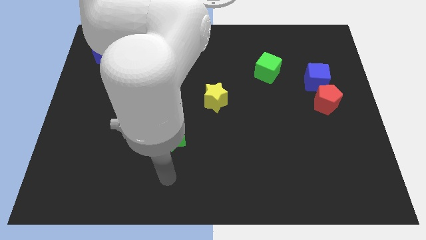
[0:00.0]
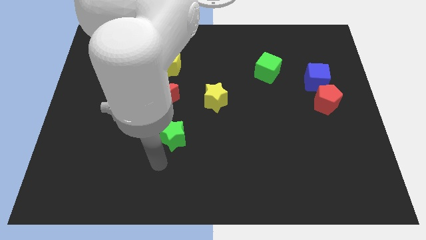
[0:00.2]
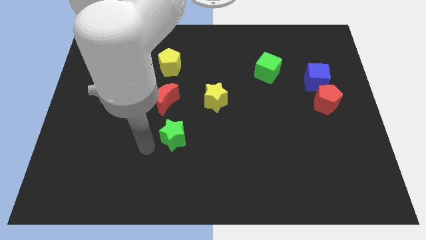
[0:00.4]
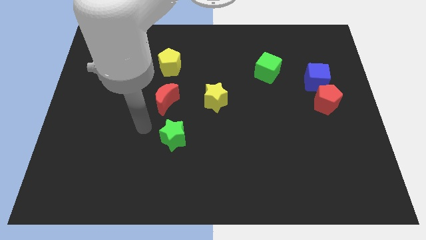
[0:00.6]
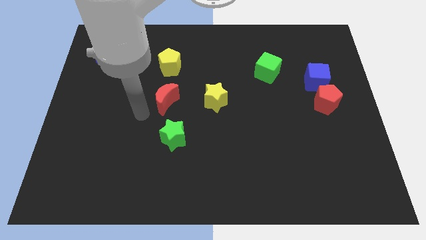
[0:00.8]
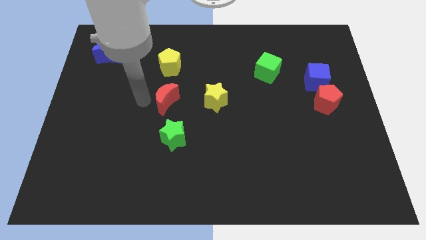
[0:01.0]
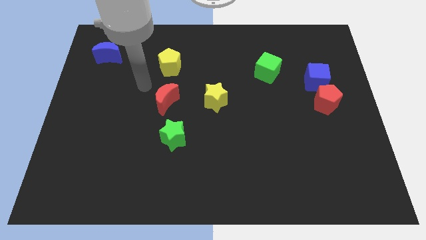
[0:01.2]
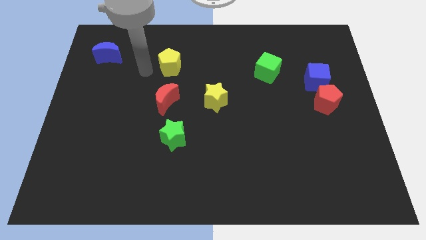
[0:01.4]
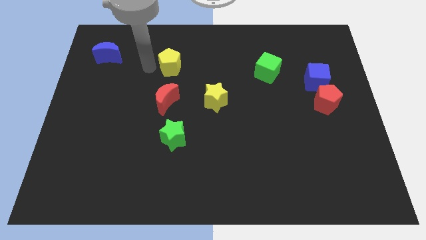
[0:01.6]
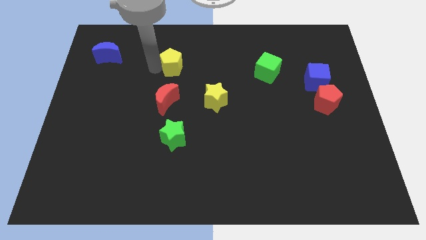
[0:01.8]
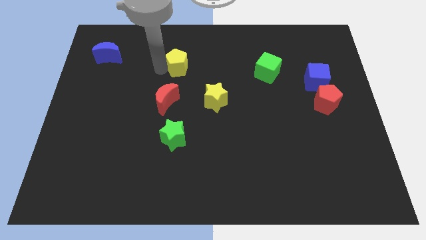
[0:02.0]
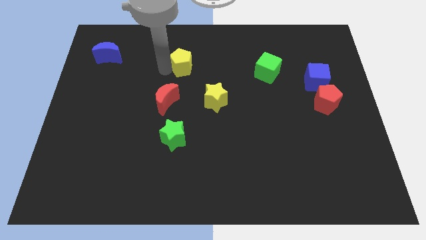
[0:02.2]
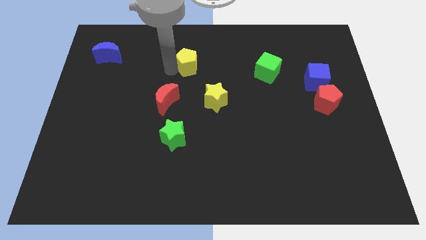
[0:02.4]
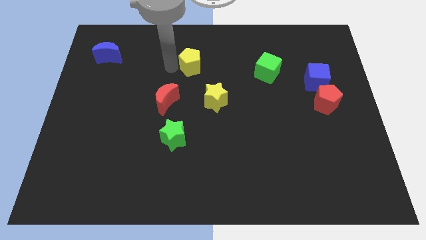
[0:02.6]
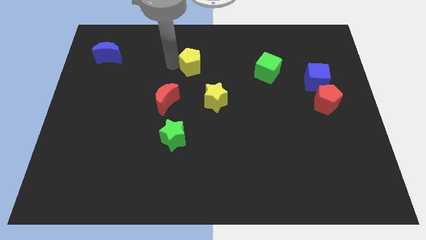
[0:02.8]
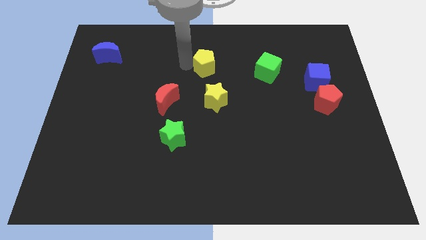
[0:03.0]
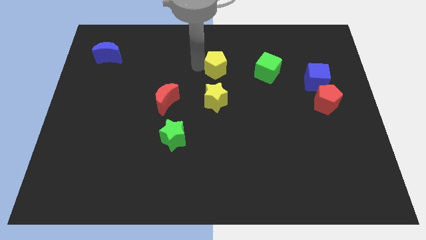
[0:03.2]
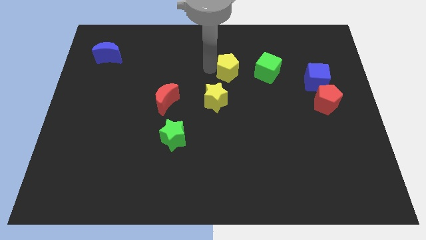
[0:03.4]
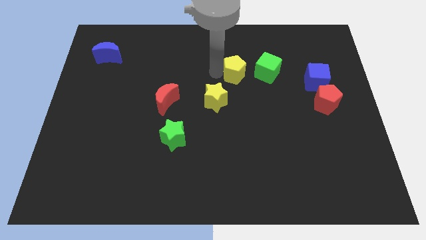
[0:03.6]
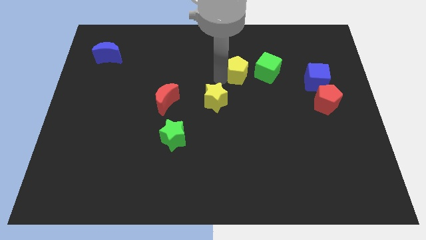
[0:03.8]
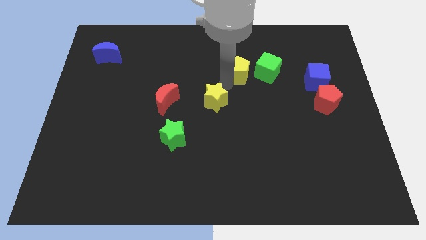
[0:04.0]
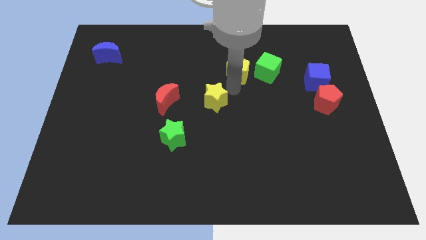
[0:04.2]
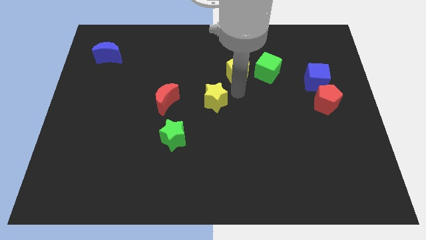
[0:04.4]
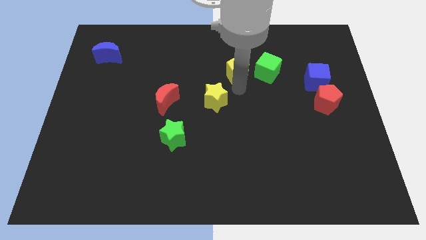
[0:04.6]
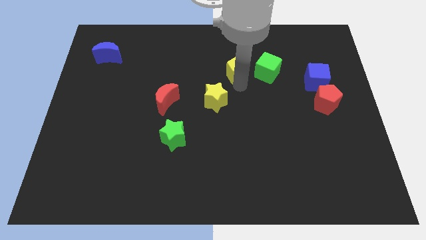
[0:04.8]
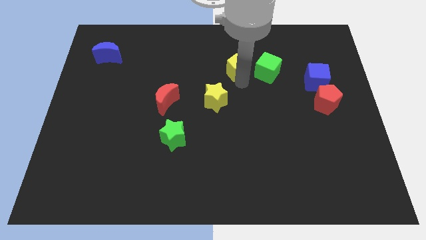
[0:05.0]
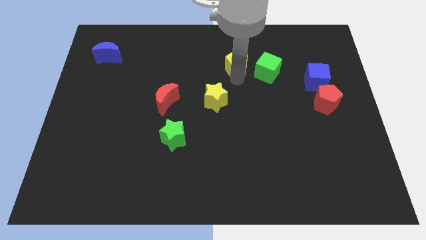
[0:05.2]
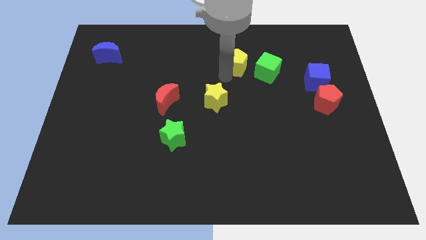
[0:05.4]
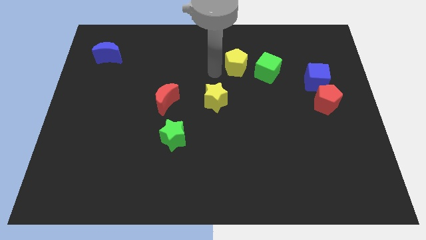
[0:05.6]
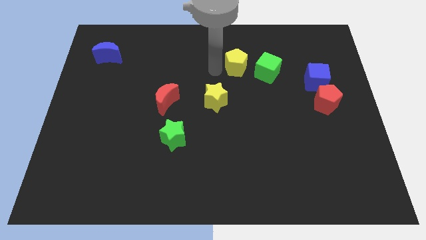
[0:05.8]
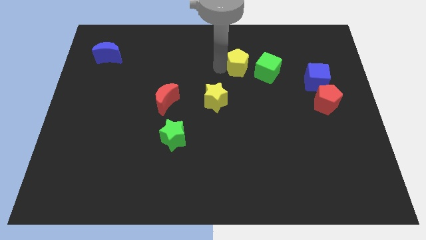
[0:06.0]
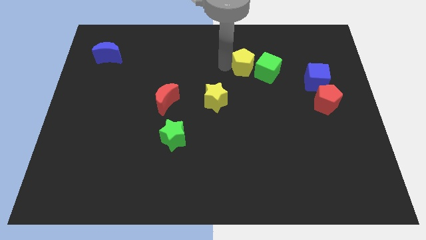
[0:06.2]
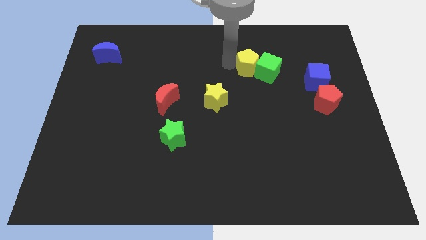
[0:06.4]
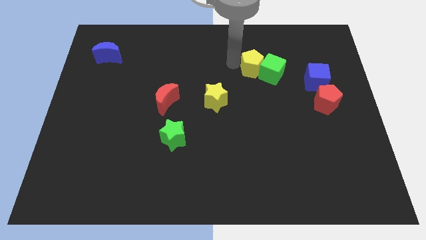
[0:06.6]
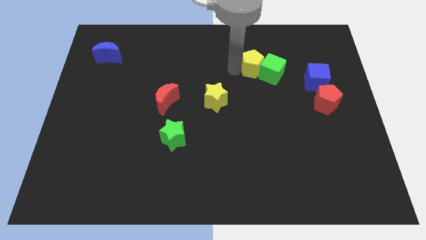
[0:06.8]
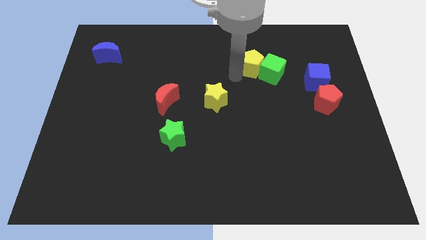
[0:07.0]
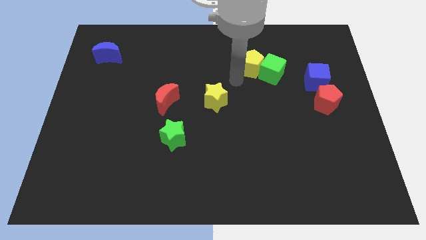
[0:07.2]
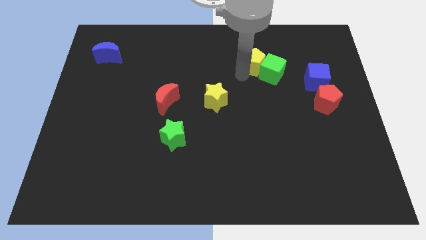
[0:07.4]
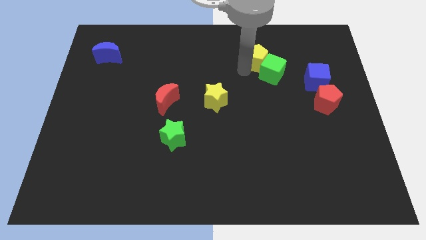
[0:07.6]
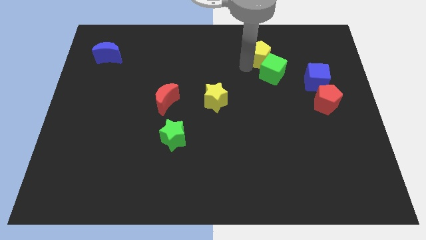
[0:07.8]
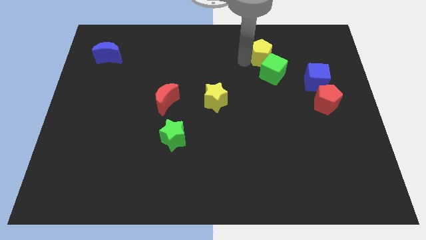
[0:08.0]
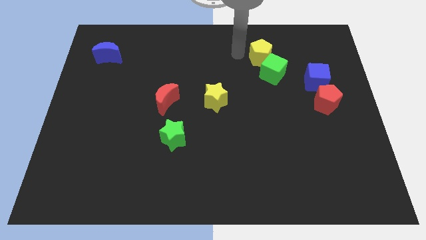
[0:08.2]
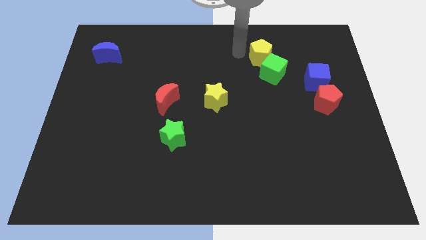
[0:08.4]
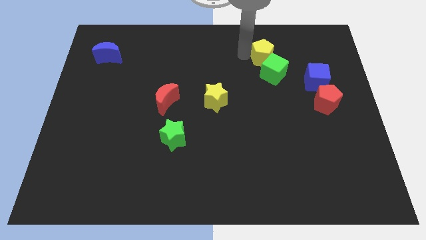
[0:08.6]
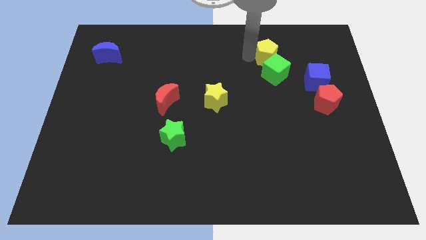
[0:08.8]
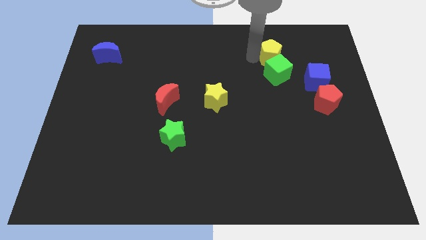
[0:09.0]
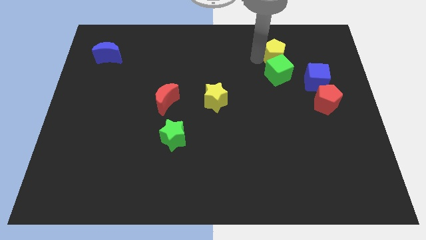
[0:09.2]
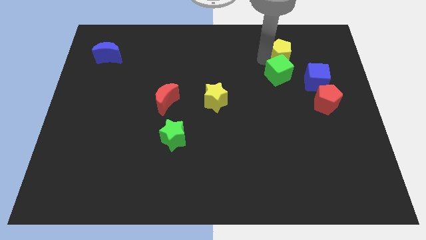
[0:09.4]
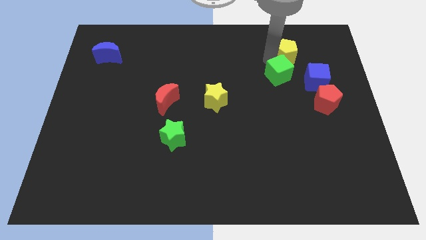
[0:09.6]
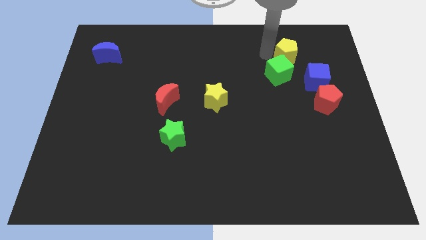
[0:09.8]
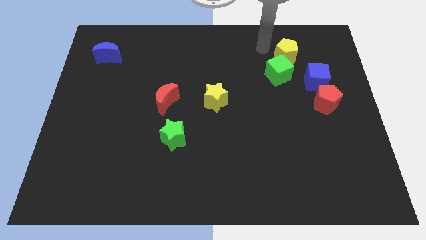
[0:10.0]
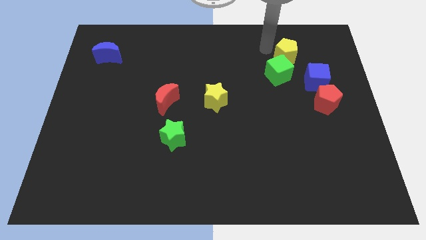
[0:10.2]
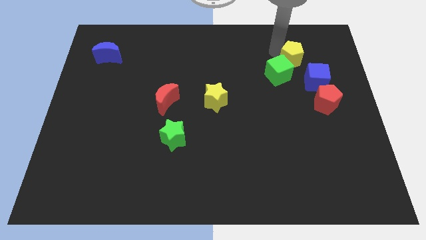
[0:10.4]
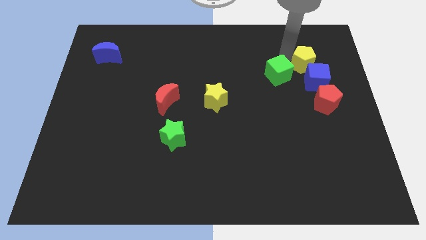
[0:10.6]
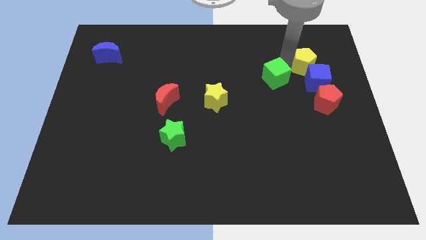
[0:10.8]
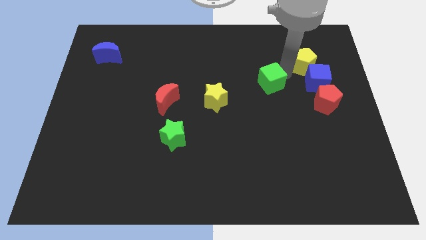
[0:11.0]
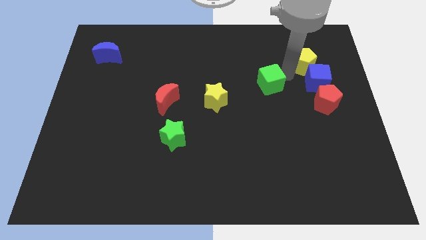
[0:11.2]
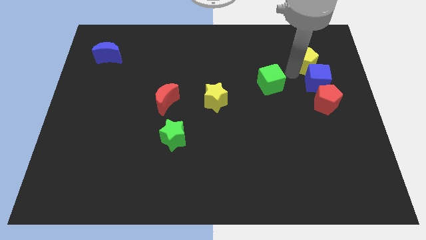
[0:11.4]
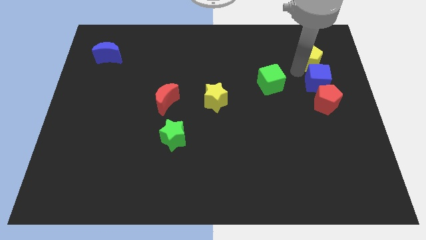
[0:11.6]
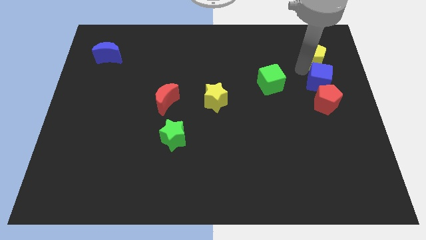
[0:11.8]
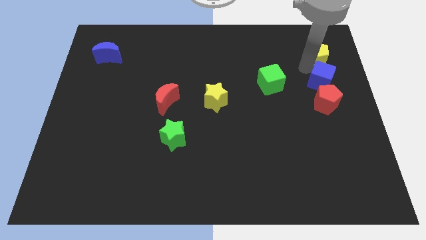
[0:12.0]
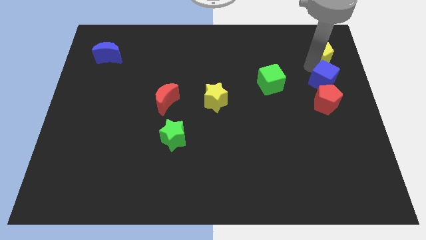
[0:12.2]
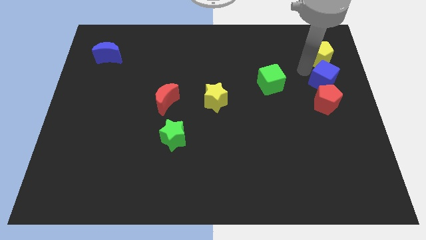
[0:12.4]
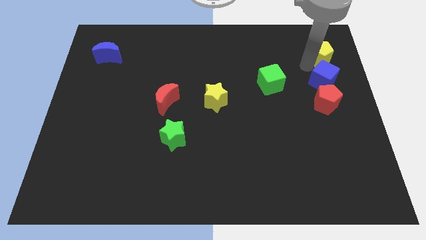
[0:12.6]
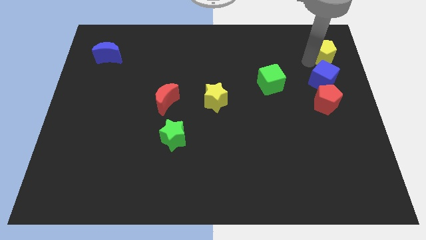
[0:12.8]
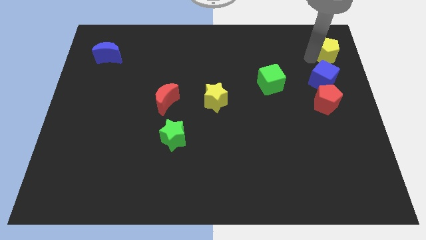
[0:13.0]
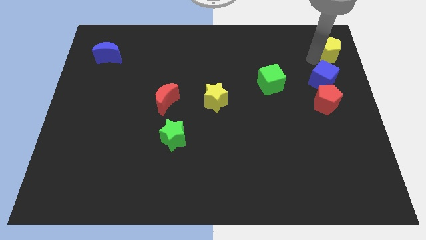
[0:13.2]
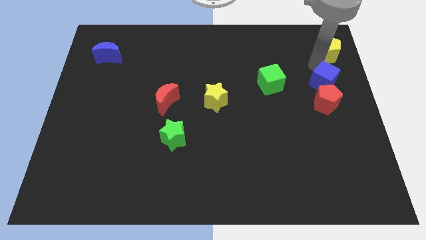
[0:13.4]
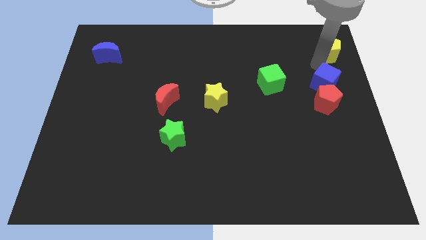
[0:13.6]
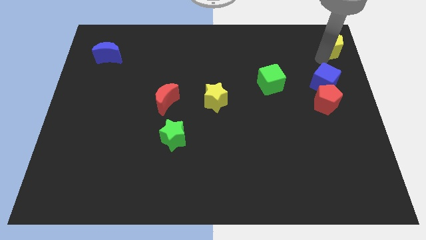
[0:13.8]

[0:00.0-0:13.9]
move the yellow pentagon to the top right of the board
